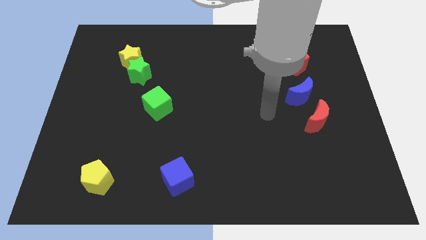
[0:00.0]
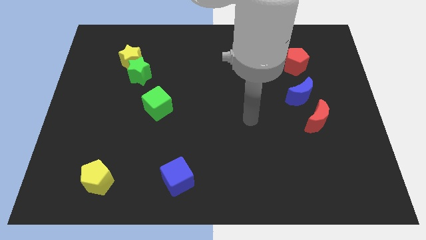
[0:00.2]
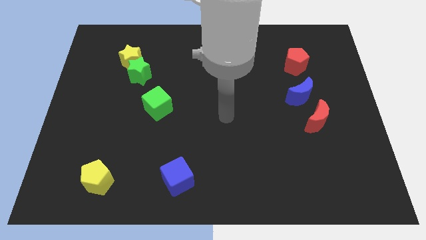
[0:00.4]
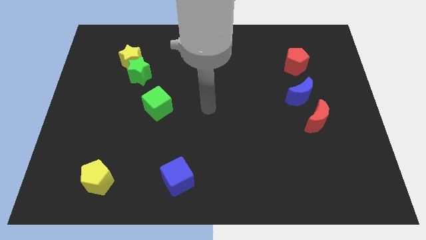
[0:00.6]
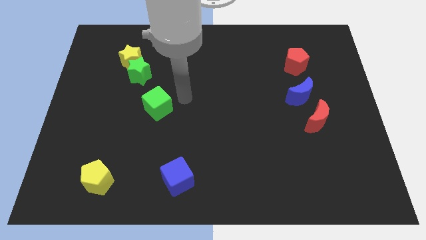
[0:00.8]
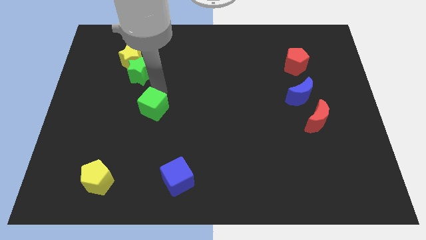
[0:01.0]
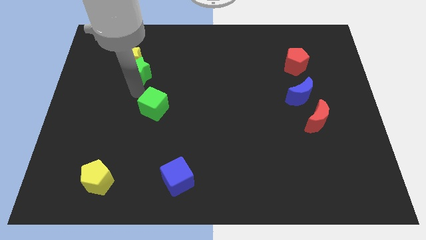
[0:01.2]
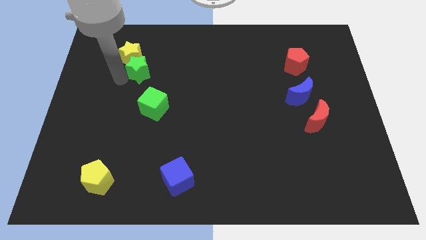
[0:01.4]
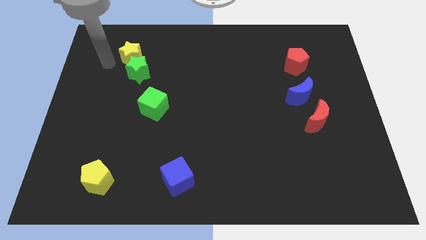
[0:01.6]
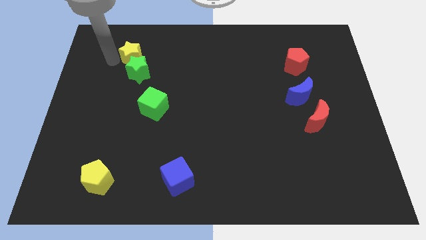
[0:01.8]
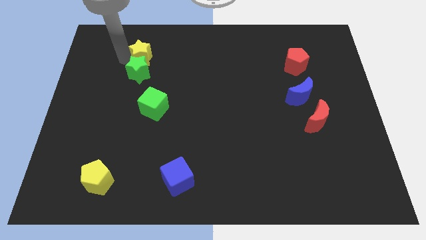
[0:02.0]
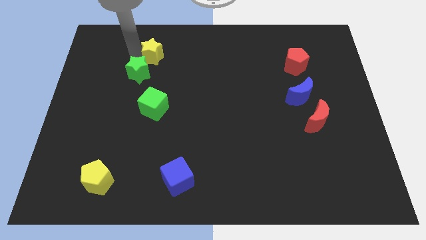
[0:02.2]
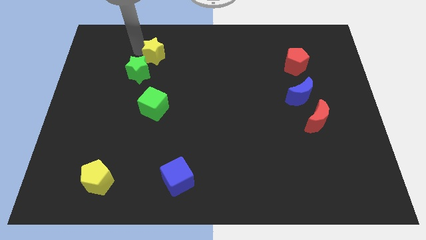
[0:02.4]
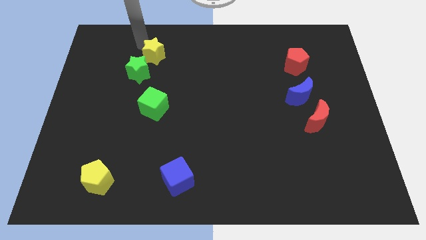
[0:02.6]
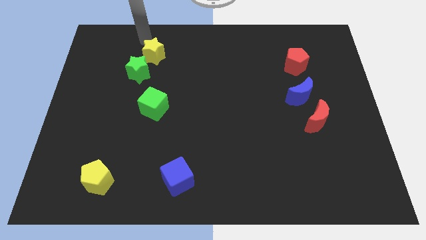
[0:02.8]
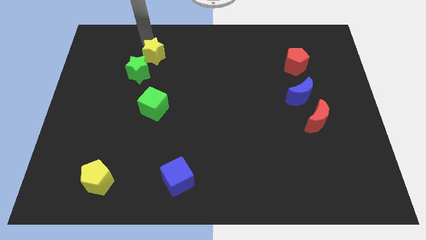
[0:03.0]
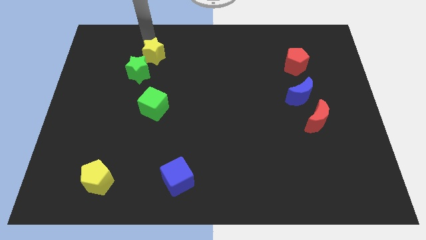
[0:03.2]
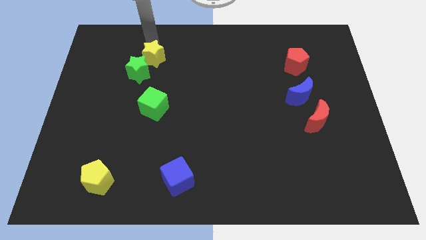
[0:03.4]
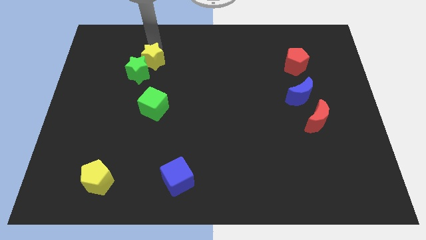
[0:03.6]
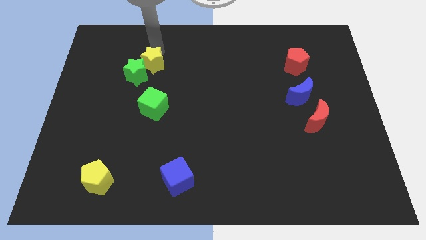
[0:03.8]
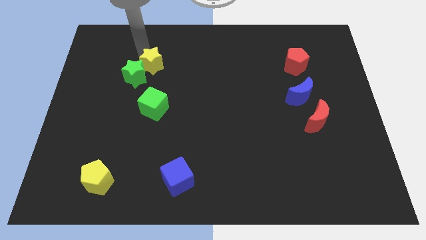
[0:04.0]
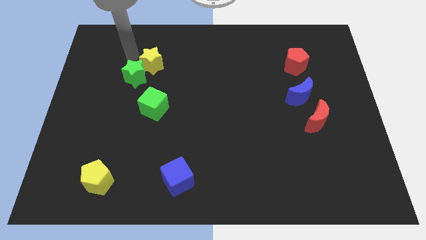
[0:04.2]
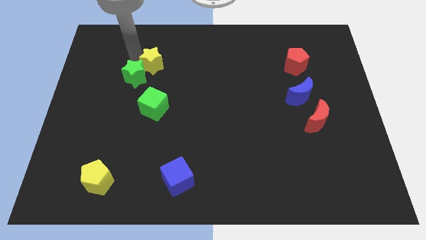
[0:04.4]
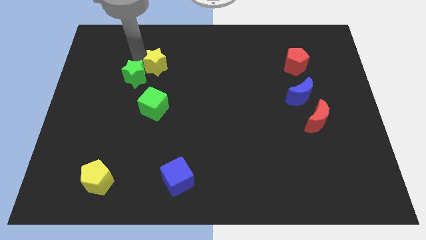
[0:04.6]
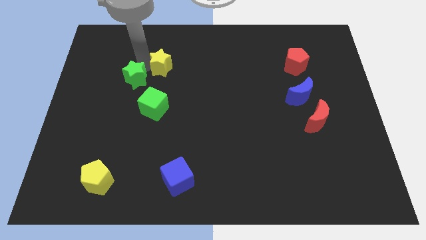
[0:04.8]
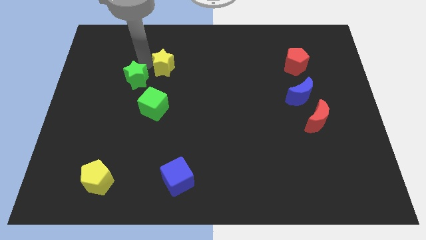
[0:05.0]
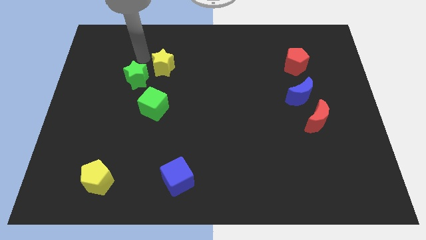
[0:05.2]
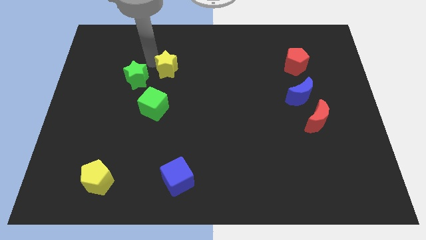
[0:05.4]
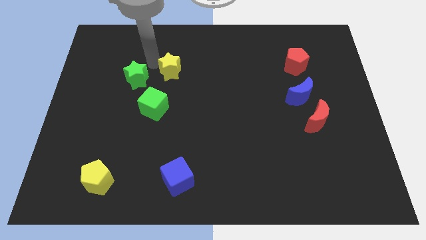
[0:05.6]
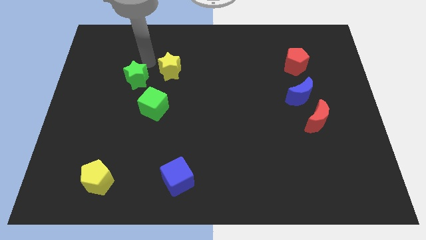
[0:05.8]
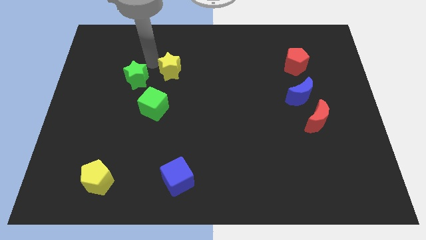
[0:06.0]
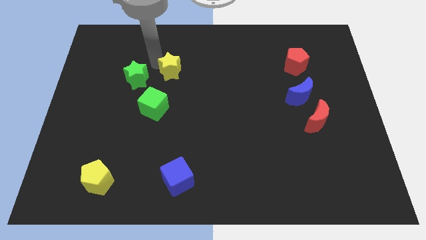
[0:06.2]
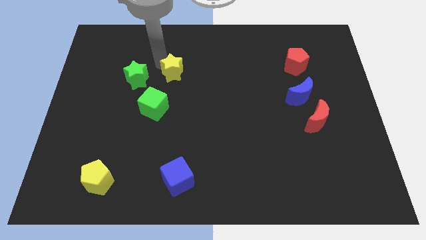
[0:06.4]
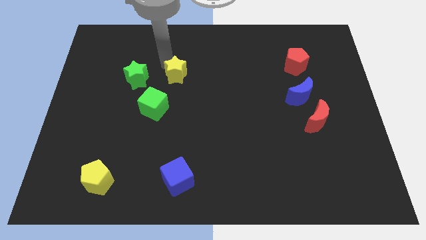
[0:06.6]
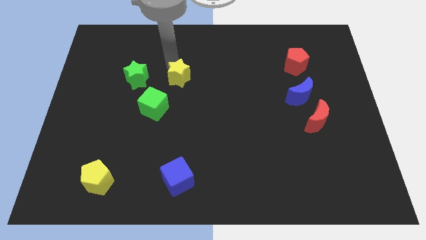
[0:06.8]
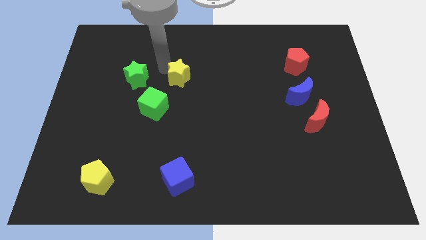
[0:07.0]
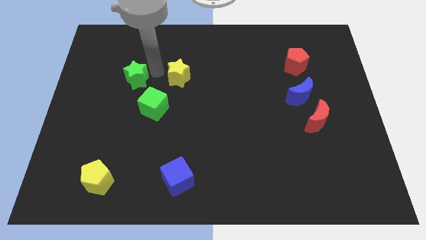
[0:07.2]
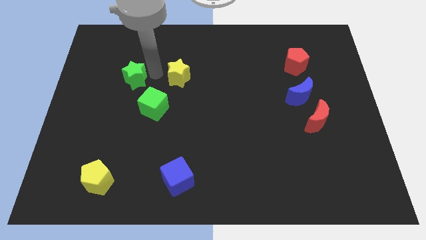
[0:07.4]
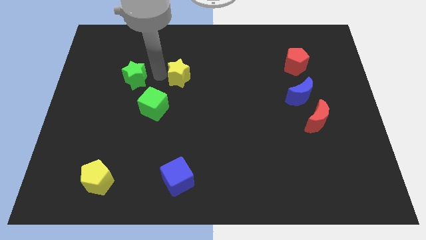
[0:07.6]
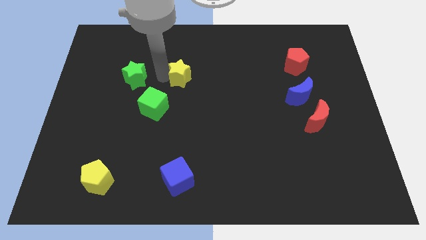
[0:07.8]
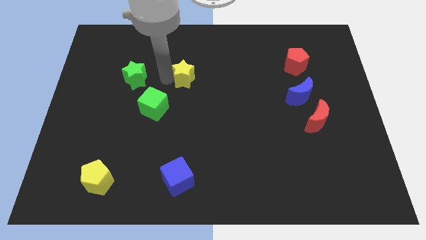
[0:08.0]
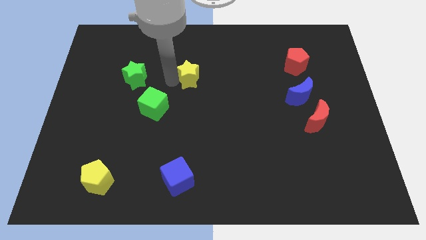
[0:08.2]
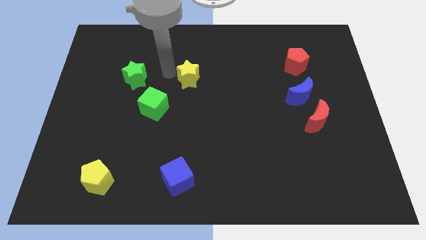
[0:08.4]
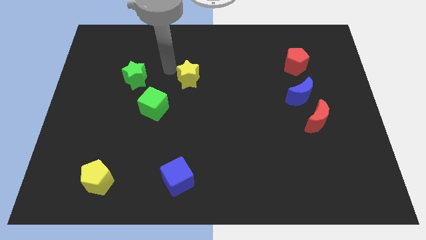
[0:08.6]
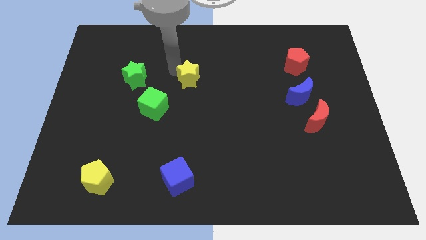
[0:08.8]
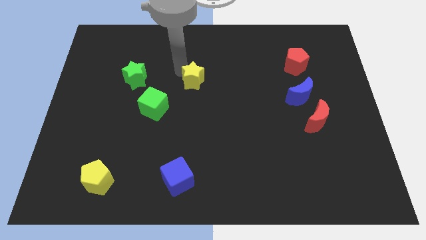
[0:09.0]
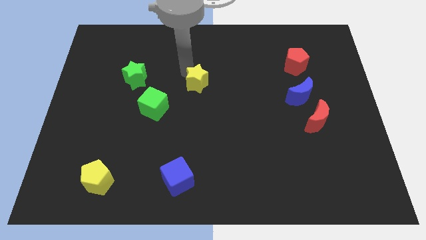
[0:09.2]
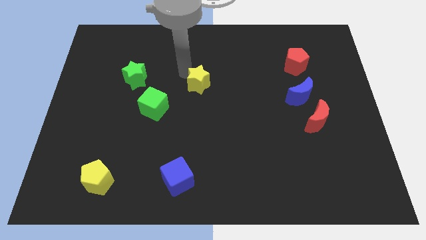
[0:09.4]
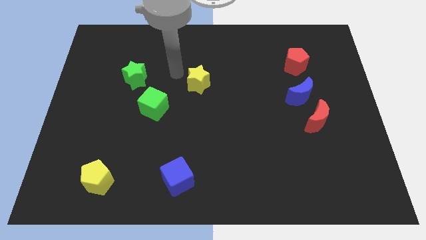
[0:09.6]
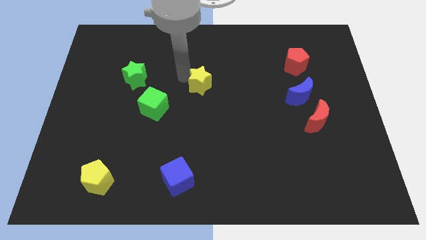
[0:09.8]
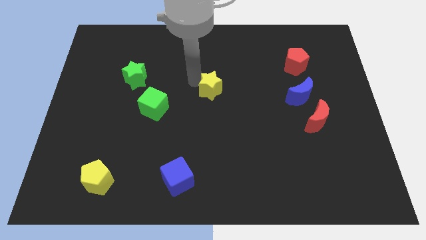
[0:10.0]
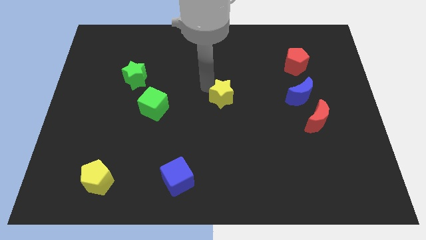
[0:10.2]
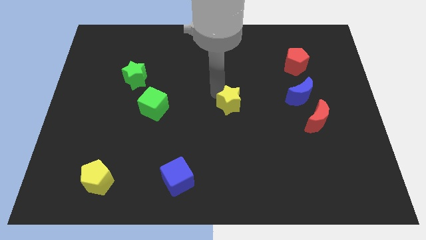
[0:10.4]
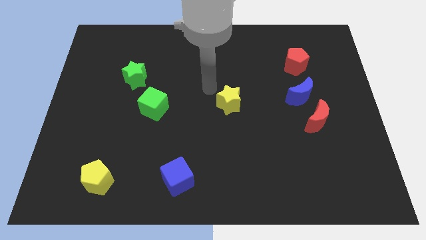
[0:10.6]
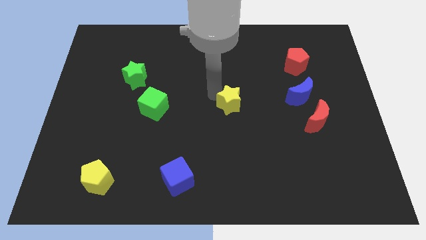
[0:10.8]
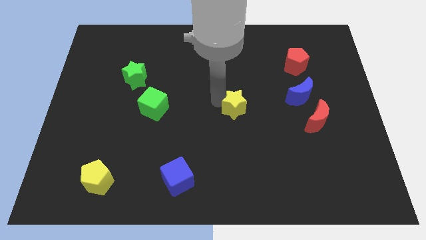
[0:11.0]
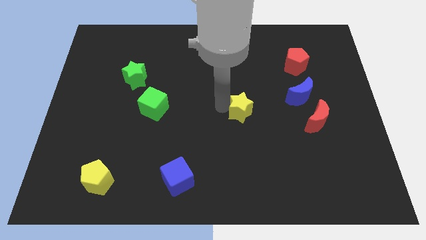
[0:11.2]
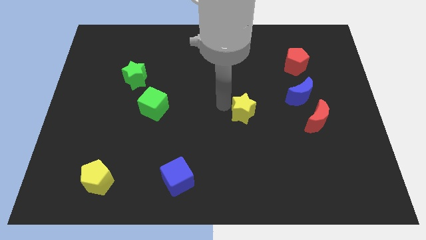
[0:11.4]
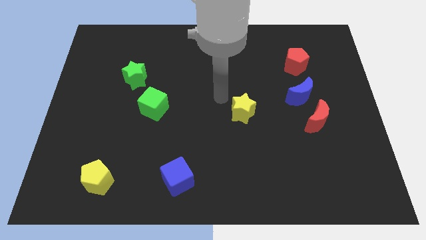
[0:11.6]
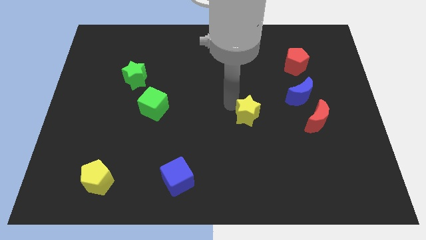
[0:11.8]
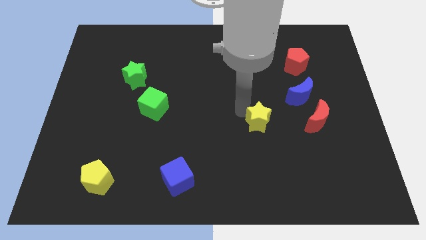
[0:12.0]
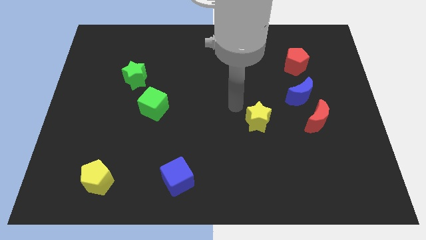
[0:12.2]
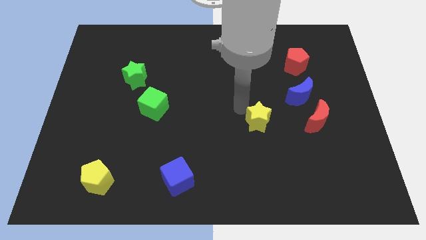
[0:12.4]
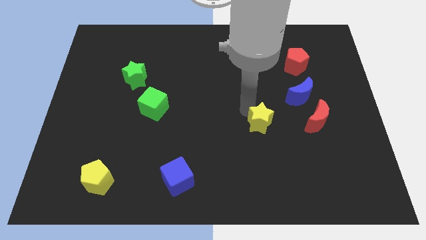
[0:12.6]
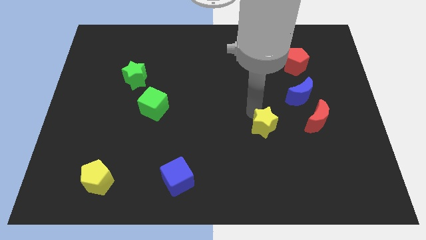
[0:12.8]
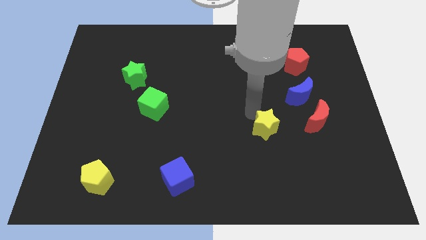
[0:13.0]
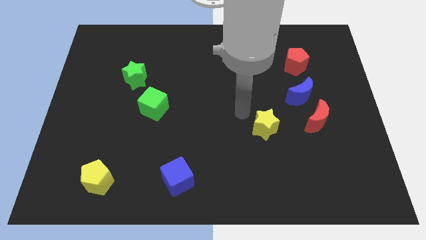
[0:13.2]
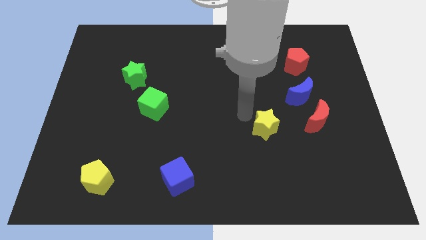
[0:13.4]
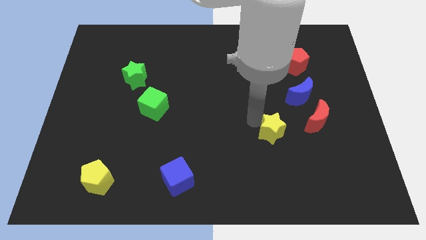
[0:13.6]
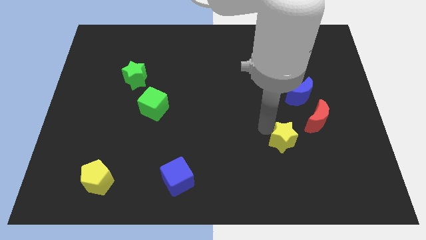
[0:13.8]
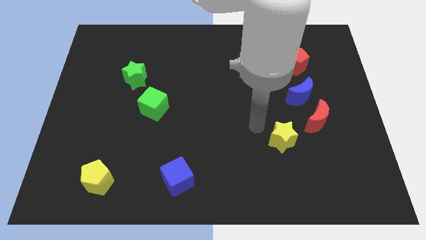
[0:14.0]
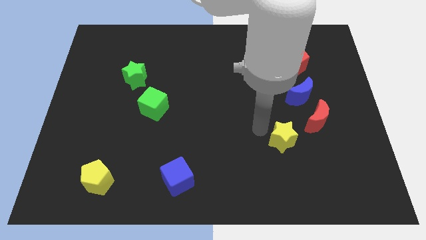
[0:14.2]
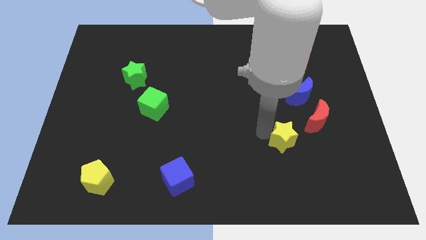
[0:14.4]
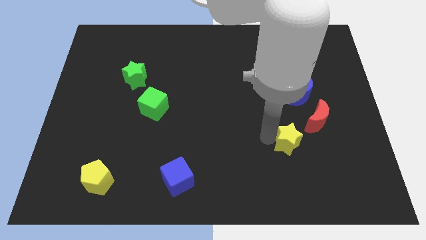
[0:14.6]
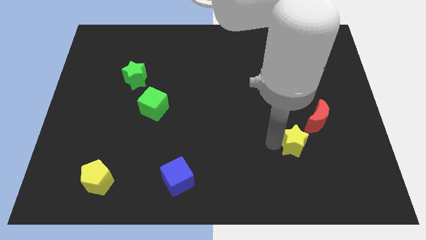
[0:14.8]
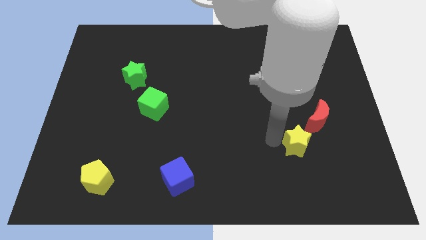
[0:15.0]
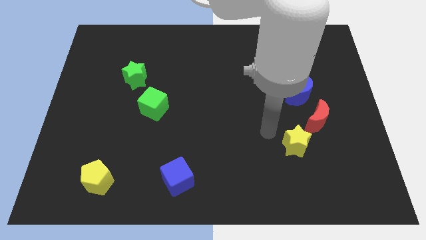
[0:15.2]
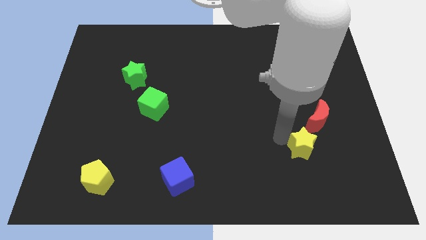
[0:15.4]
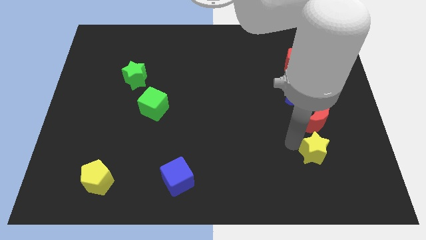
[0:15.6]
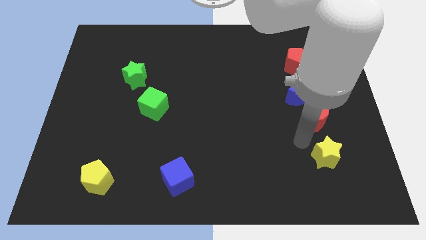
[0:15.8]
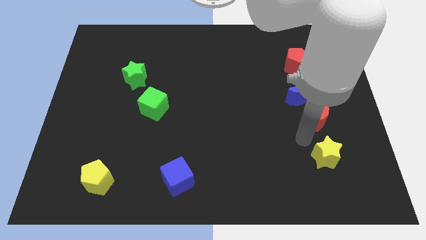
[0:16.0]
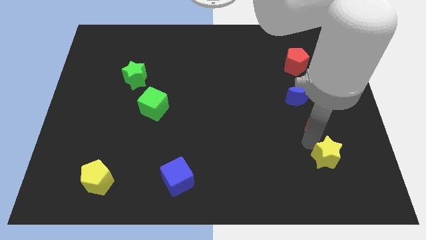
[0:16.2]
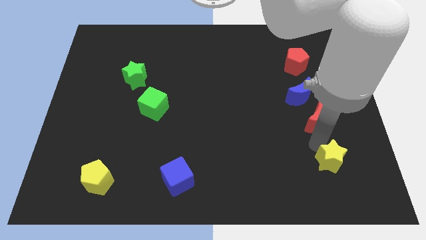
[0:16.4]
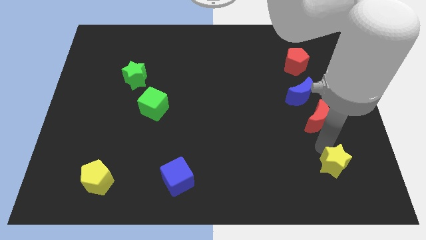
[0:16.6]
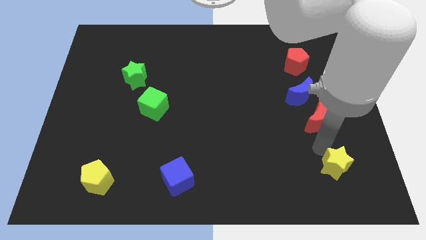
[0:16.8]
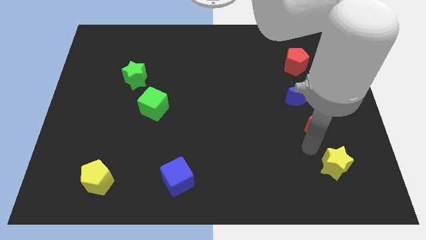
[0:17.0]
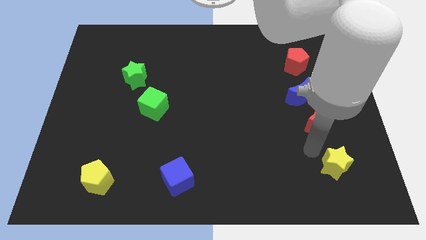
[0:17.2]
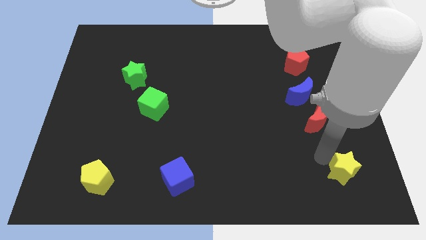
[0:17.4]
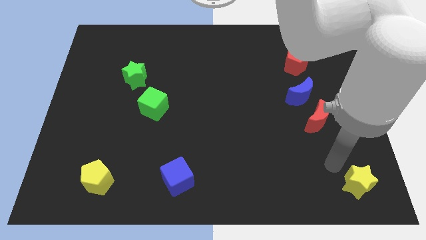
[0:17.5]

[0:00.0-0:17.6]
push the yellow star to the bottom right corner
